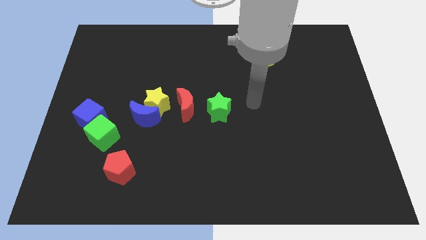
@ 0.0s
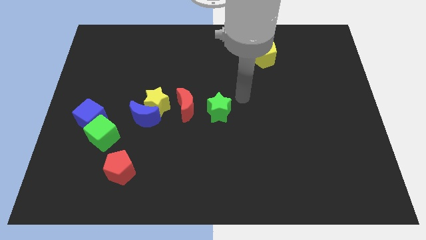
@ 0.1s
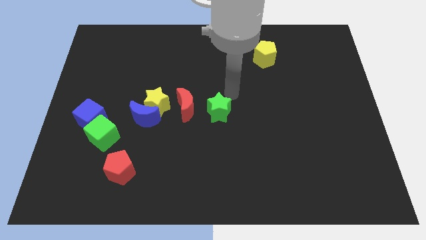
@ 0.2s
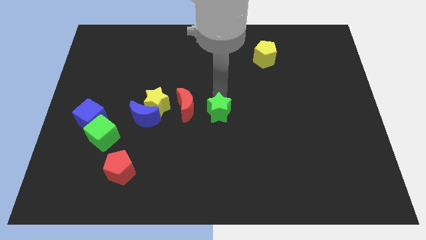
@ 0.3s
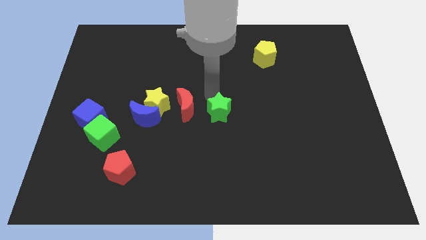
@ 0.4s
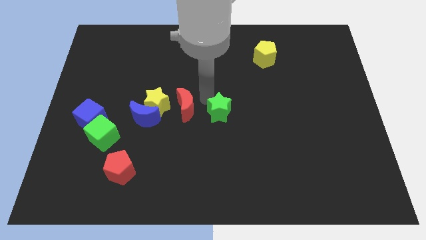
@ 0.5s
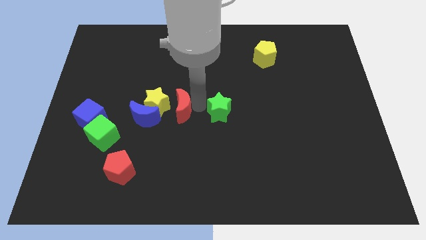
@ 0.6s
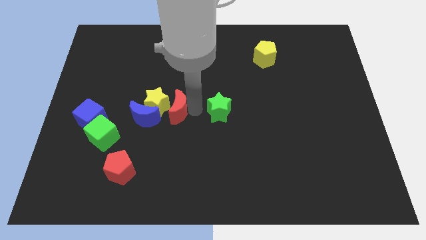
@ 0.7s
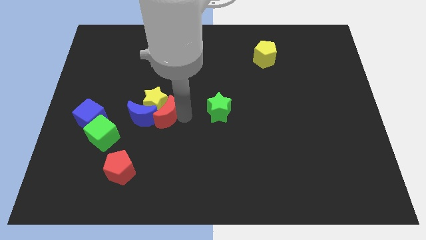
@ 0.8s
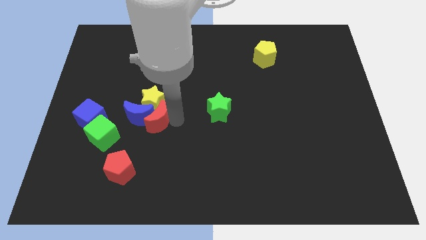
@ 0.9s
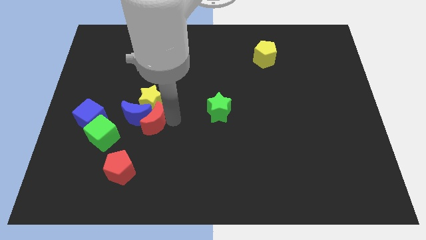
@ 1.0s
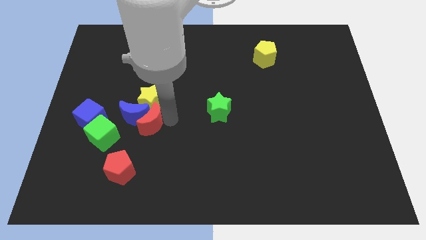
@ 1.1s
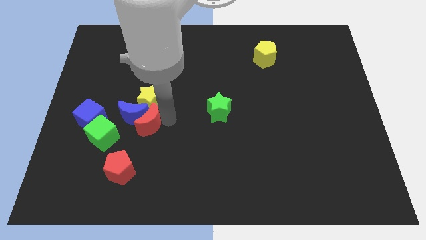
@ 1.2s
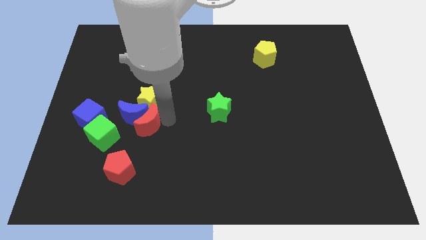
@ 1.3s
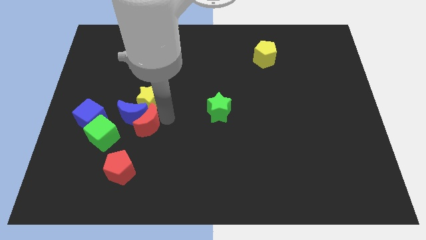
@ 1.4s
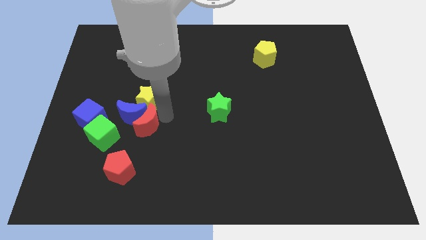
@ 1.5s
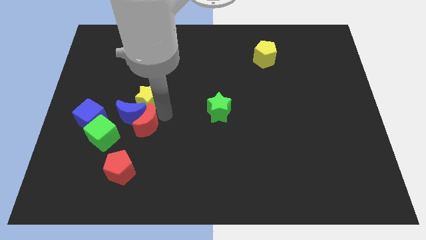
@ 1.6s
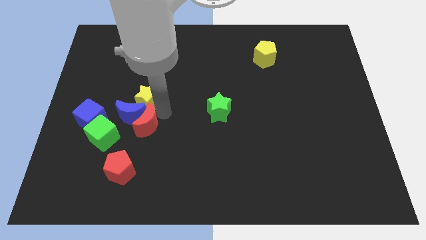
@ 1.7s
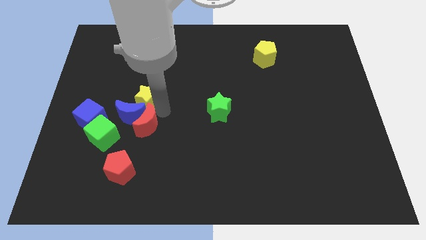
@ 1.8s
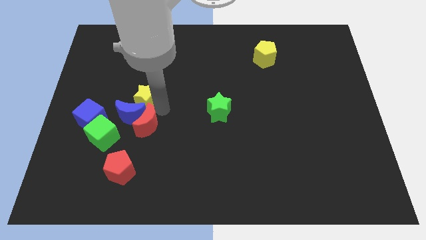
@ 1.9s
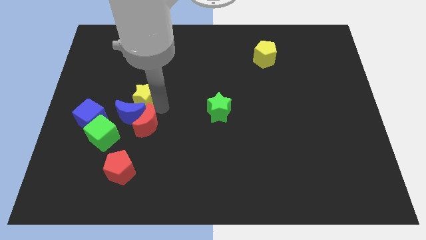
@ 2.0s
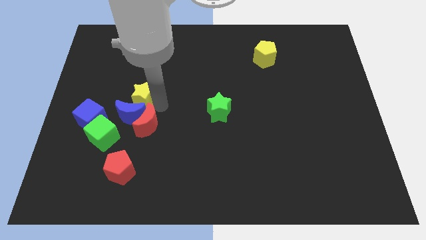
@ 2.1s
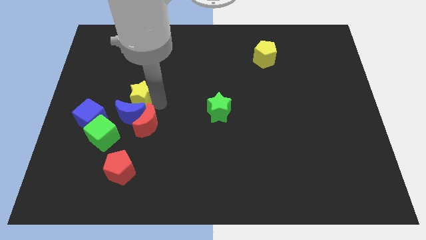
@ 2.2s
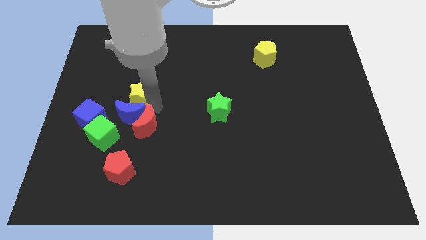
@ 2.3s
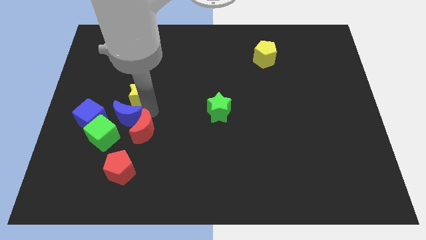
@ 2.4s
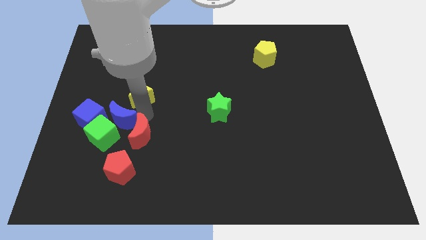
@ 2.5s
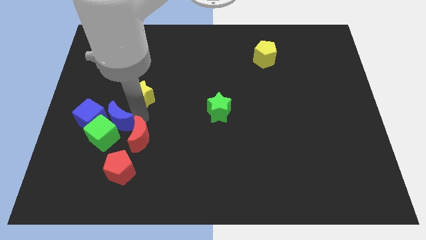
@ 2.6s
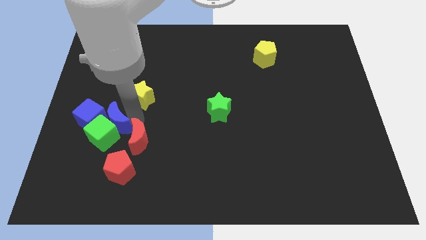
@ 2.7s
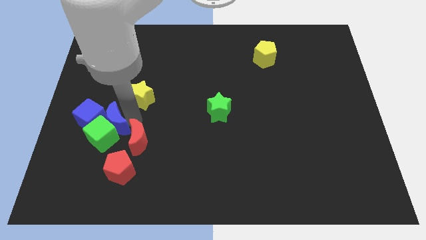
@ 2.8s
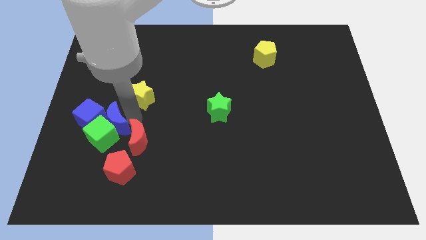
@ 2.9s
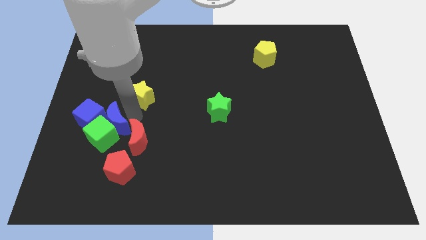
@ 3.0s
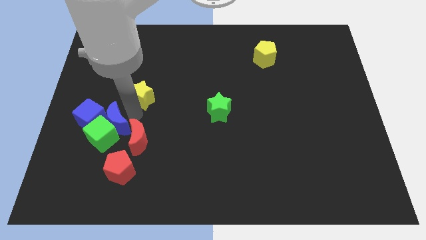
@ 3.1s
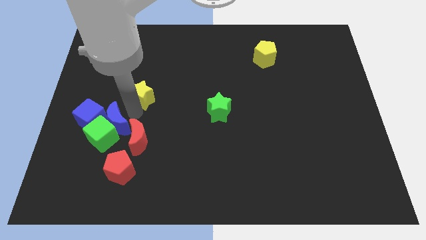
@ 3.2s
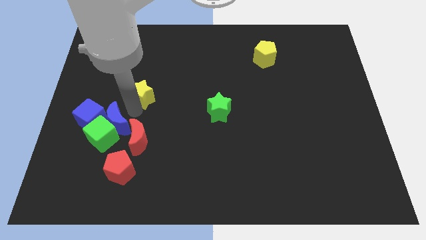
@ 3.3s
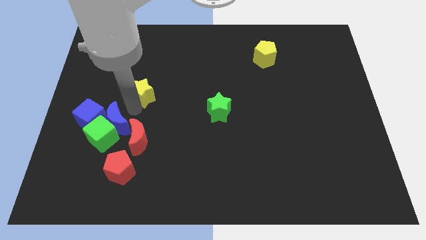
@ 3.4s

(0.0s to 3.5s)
separate the yellow star from the blue moon and red moon

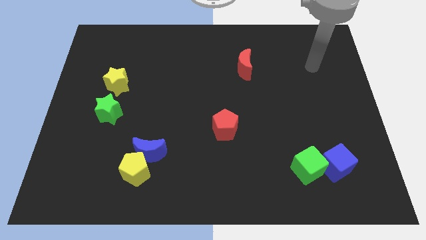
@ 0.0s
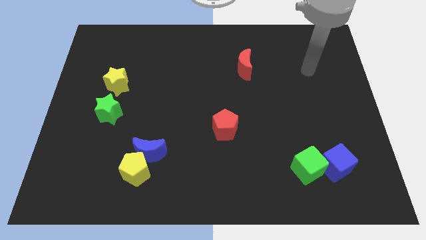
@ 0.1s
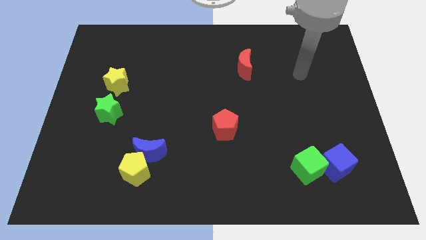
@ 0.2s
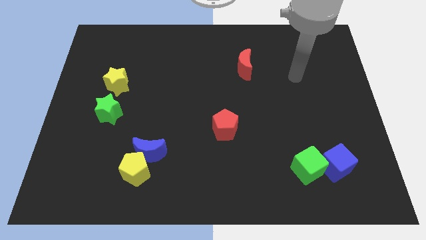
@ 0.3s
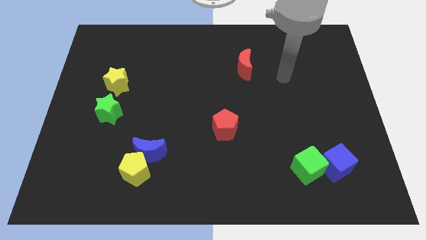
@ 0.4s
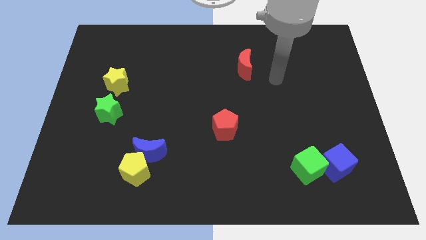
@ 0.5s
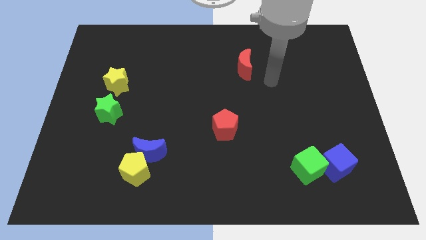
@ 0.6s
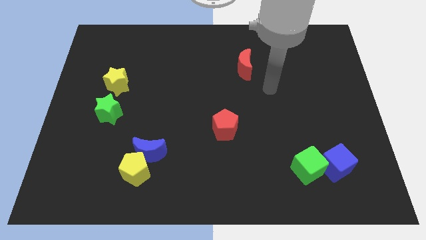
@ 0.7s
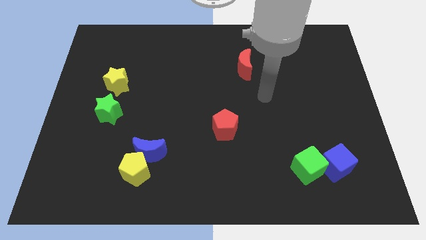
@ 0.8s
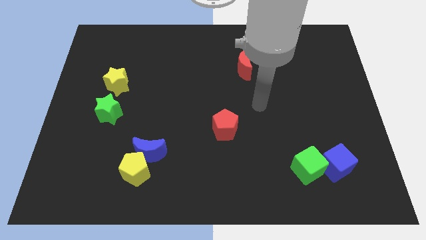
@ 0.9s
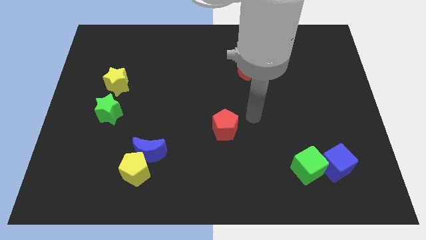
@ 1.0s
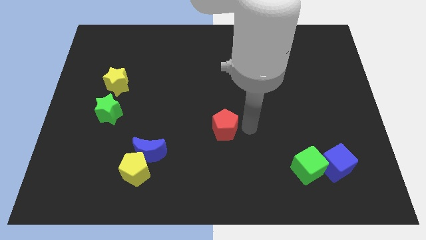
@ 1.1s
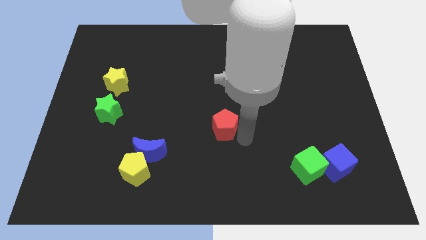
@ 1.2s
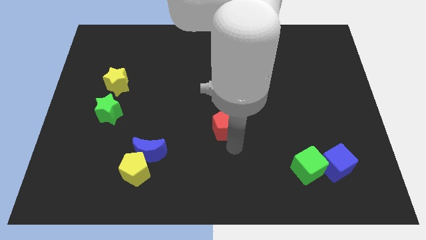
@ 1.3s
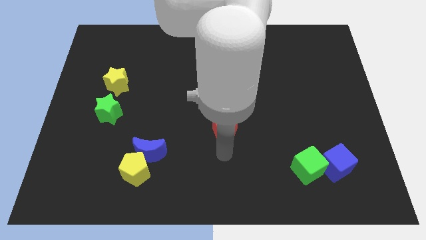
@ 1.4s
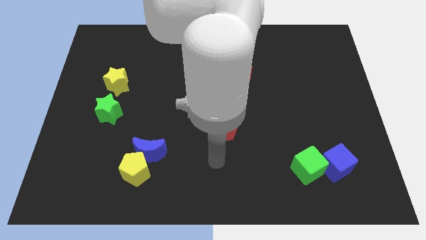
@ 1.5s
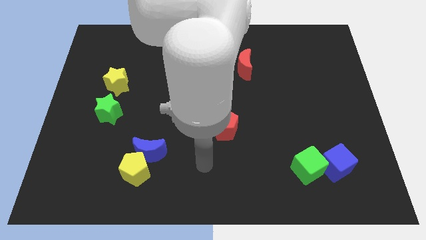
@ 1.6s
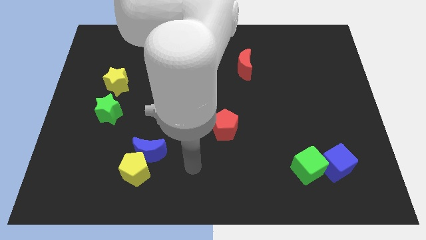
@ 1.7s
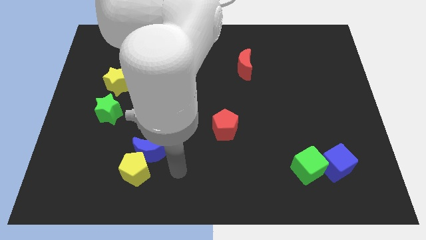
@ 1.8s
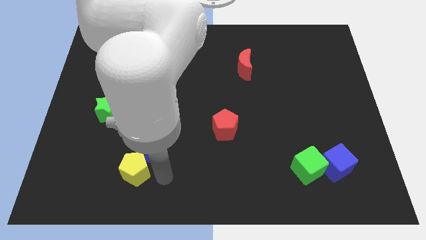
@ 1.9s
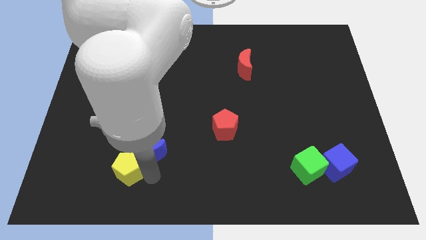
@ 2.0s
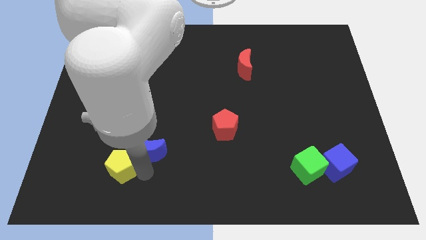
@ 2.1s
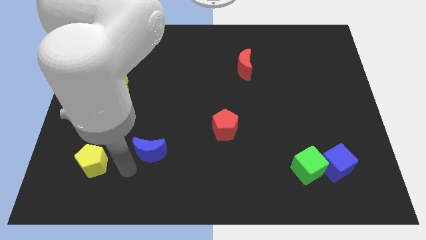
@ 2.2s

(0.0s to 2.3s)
separate the blue moon from the yellow pentagon

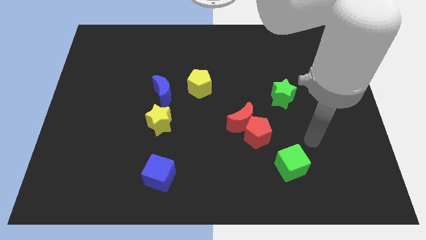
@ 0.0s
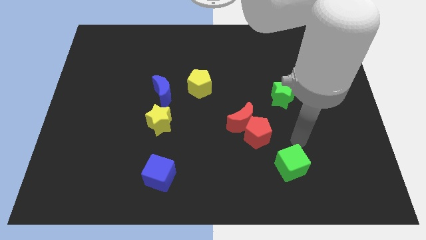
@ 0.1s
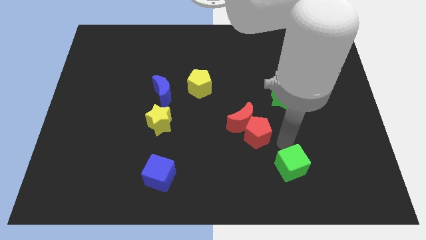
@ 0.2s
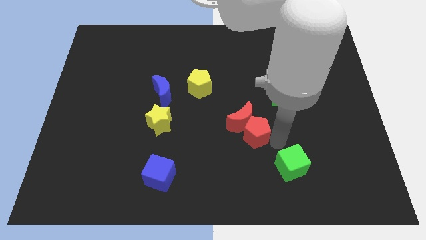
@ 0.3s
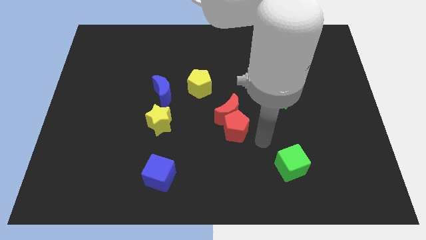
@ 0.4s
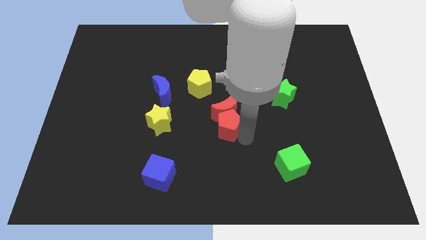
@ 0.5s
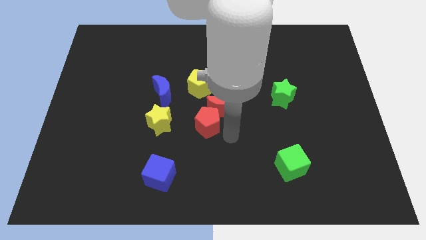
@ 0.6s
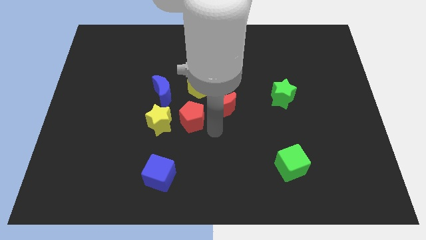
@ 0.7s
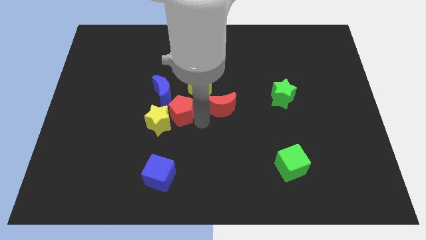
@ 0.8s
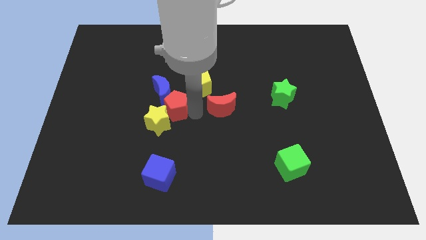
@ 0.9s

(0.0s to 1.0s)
separate the red moon from the red pentagon

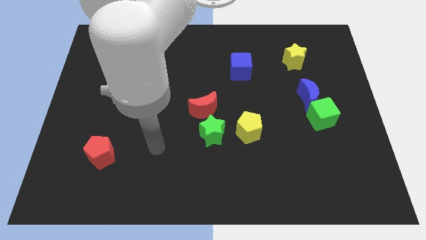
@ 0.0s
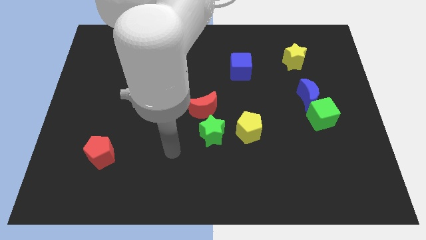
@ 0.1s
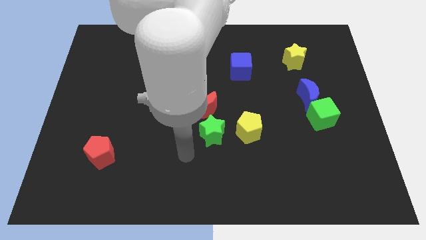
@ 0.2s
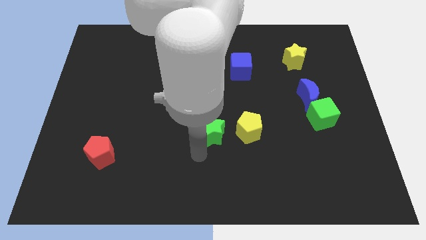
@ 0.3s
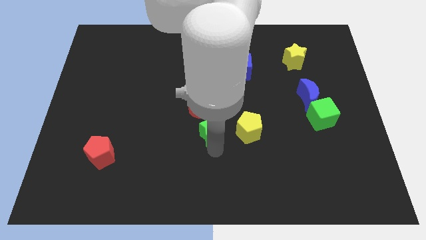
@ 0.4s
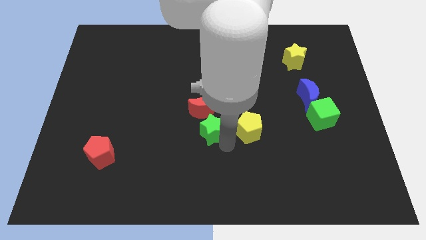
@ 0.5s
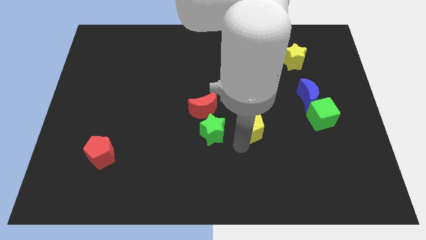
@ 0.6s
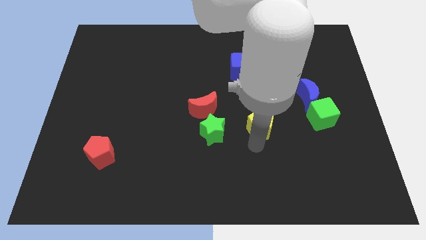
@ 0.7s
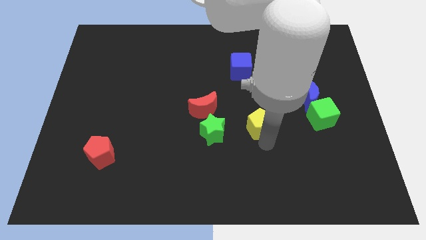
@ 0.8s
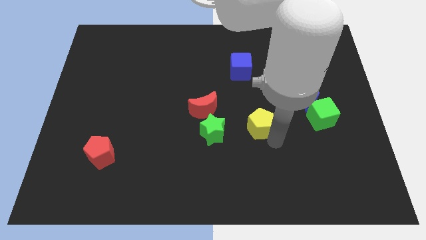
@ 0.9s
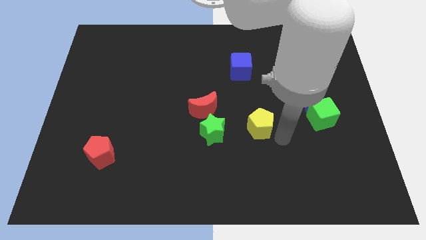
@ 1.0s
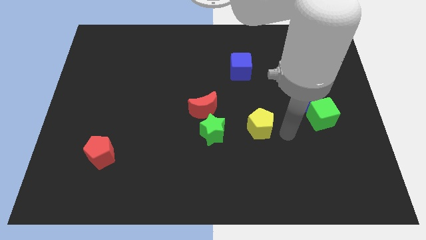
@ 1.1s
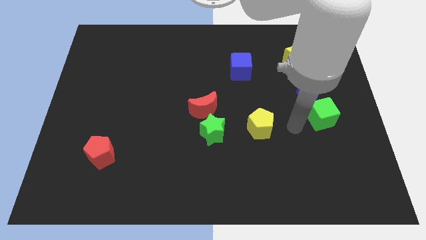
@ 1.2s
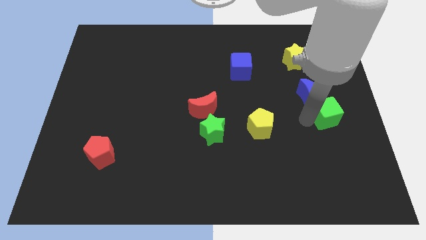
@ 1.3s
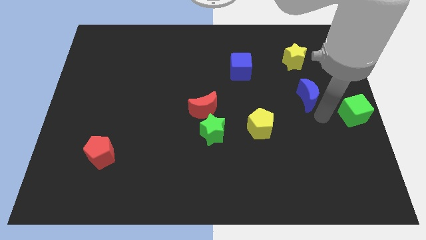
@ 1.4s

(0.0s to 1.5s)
pull the blue moon apart from the green cube

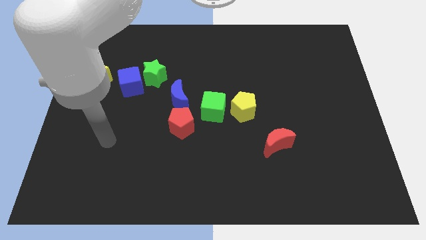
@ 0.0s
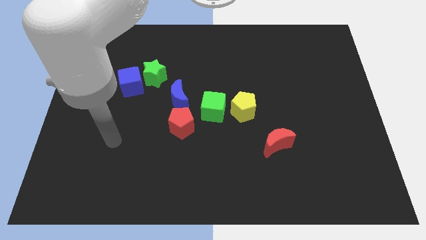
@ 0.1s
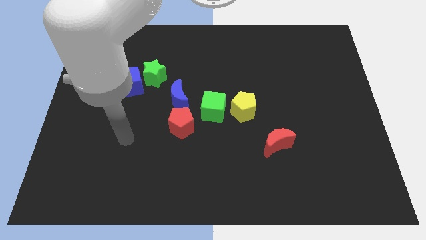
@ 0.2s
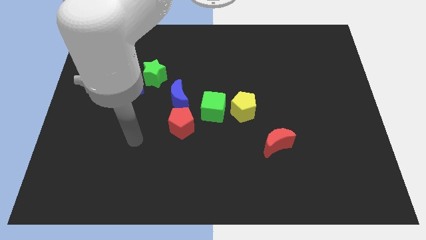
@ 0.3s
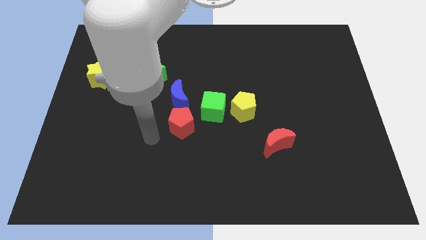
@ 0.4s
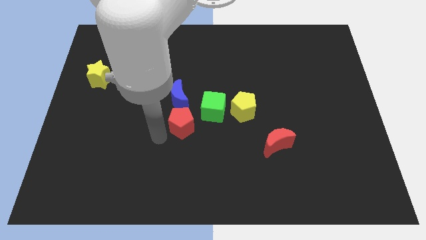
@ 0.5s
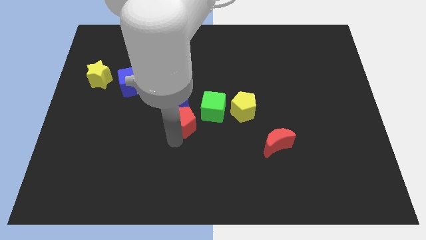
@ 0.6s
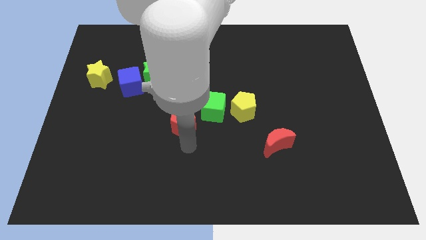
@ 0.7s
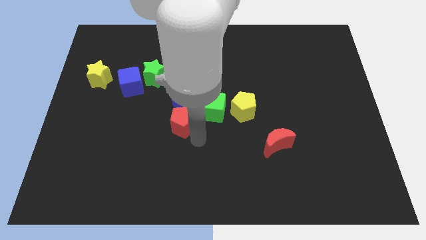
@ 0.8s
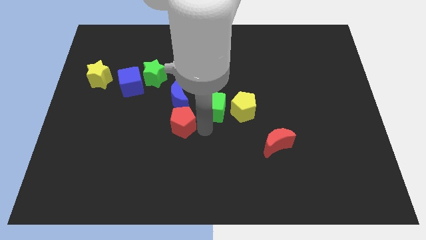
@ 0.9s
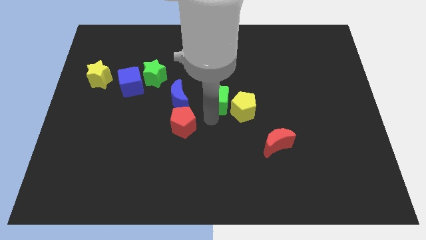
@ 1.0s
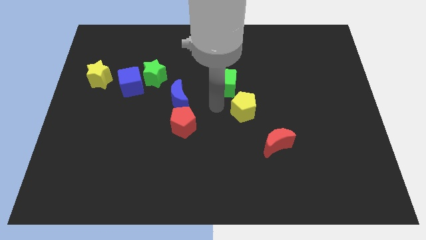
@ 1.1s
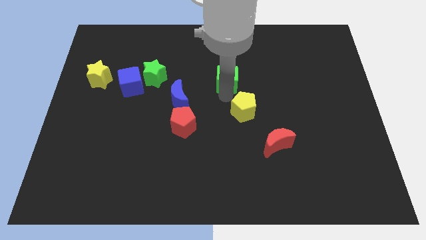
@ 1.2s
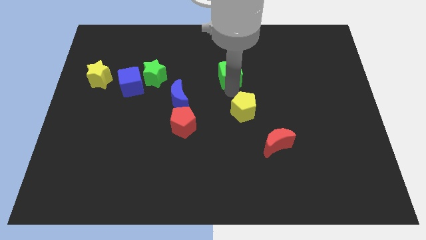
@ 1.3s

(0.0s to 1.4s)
separate the yellow pentagon from the green cube
